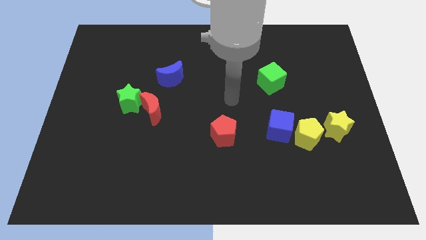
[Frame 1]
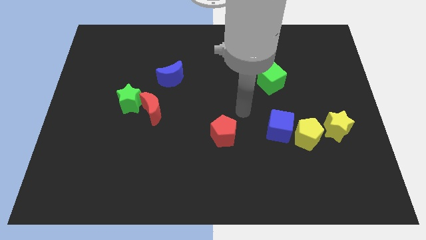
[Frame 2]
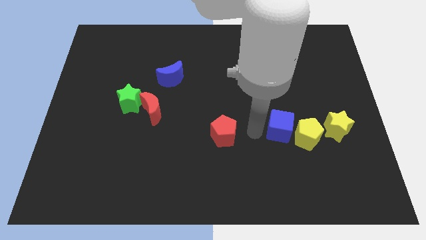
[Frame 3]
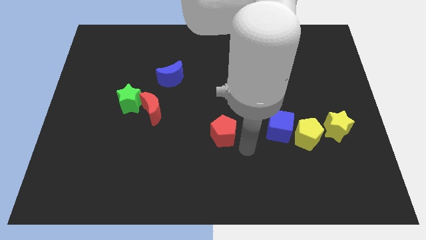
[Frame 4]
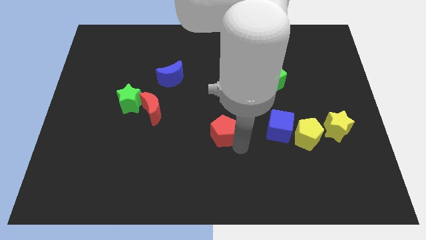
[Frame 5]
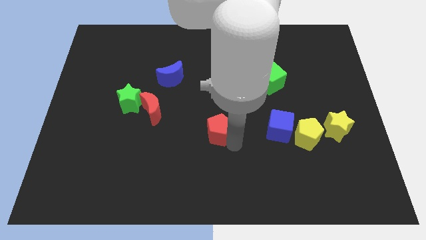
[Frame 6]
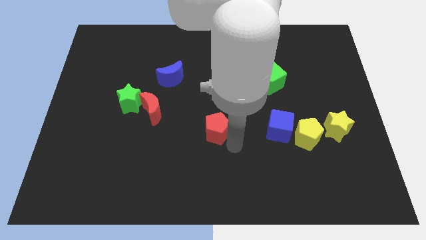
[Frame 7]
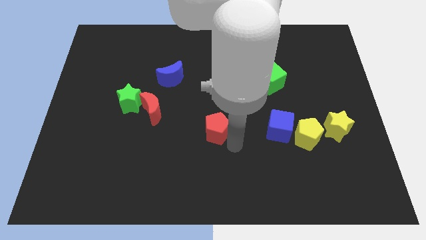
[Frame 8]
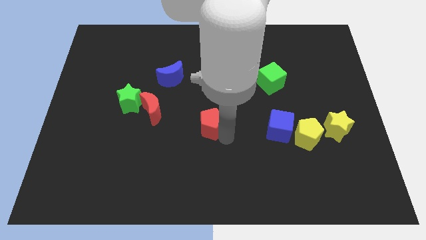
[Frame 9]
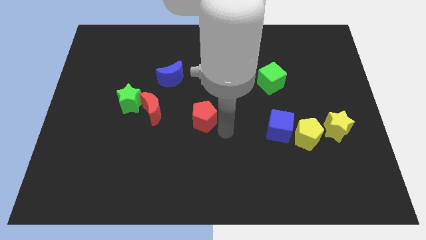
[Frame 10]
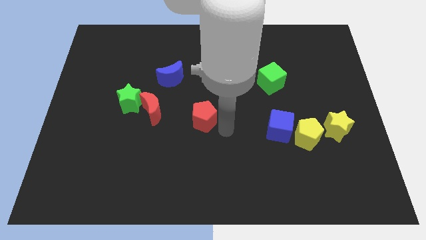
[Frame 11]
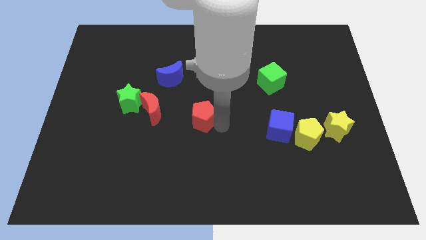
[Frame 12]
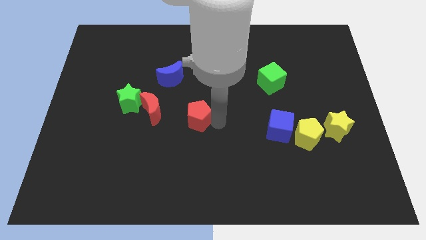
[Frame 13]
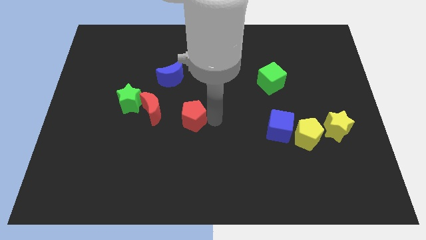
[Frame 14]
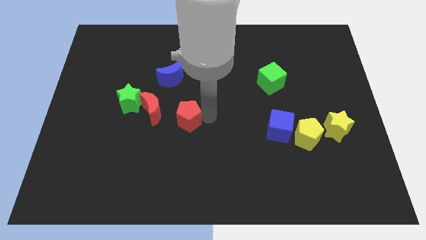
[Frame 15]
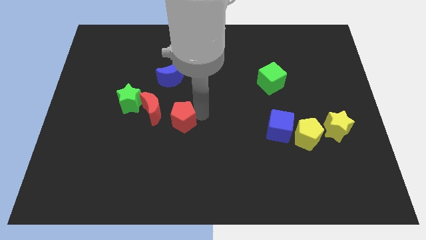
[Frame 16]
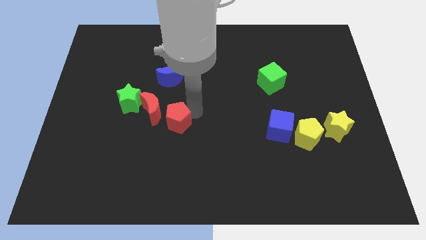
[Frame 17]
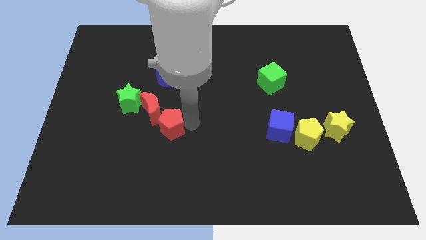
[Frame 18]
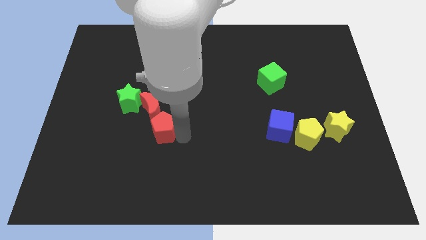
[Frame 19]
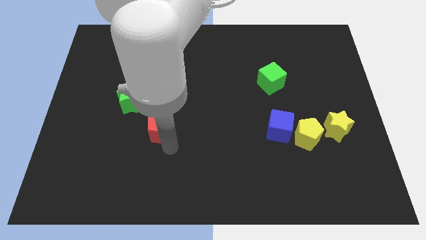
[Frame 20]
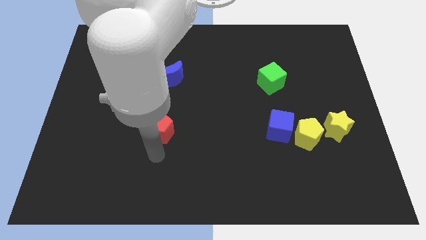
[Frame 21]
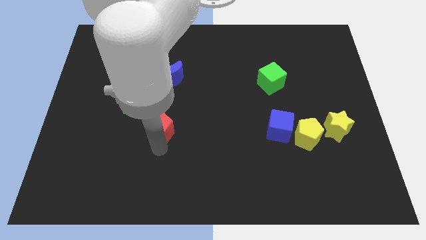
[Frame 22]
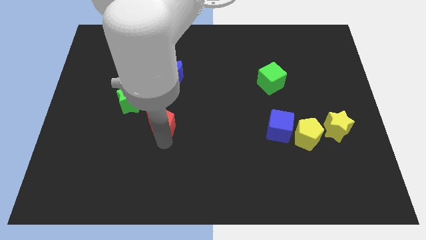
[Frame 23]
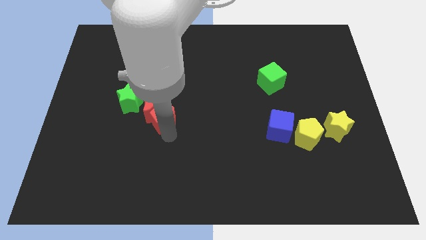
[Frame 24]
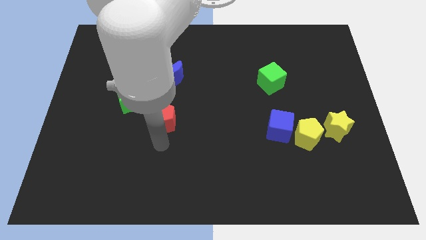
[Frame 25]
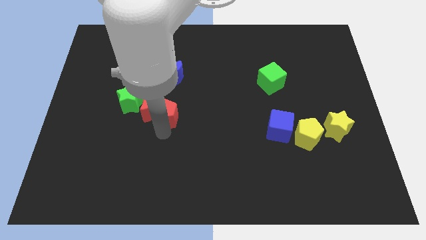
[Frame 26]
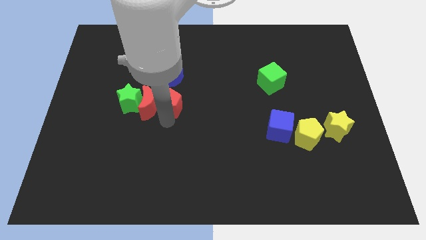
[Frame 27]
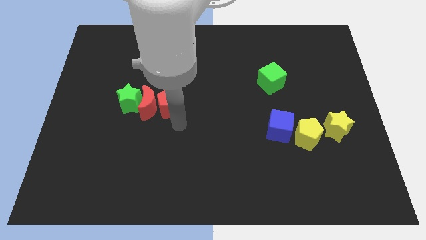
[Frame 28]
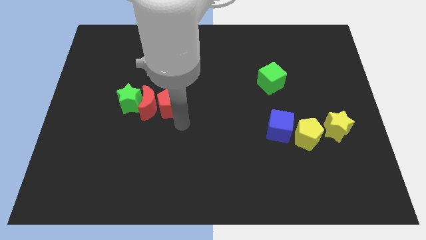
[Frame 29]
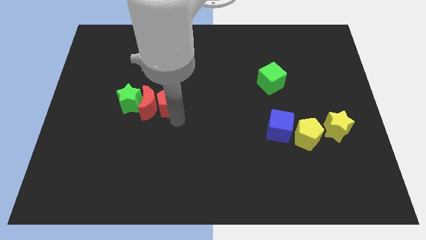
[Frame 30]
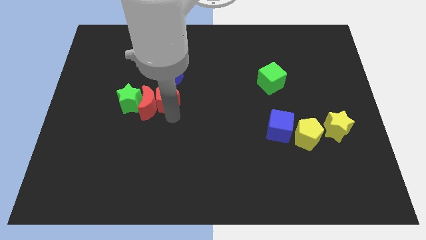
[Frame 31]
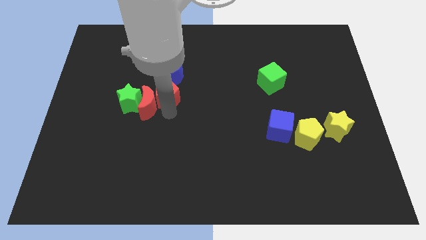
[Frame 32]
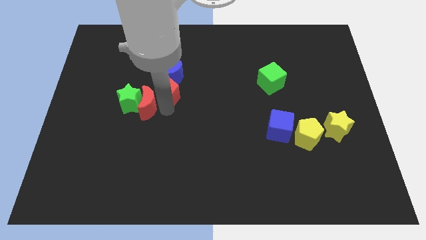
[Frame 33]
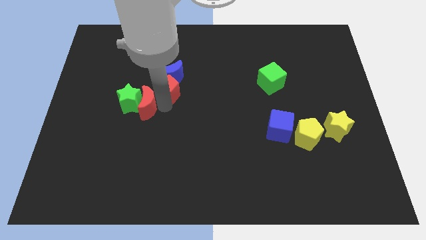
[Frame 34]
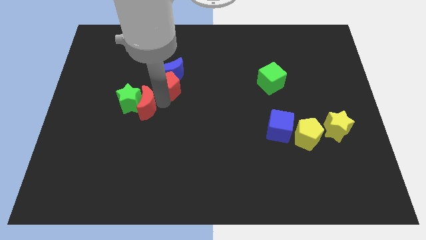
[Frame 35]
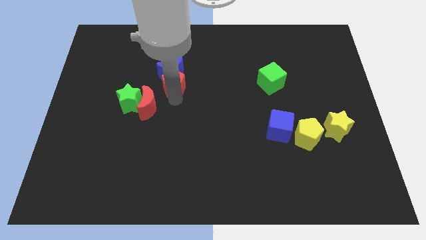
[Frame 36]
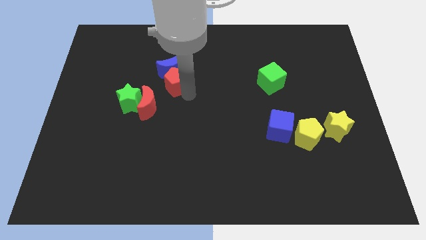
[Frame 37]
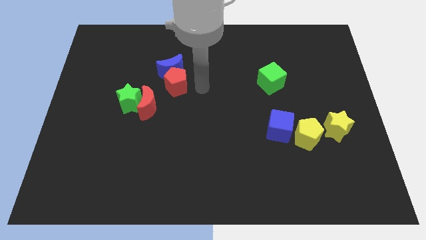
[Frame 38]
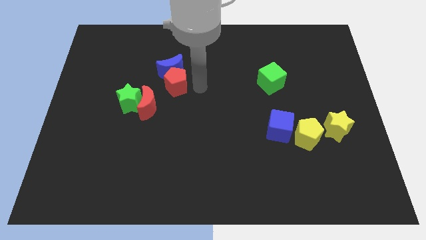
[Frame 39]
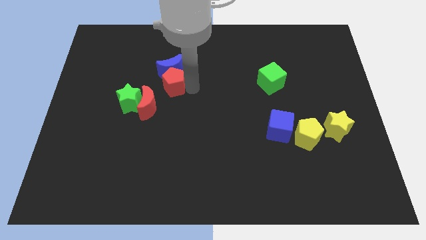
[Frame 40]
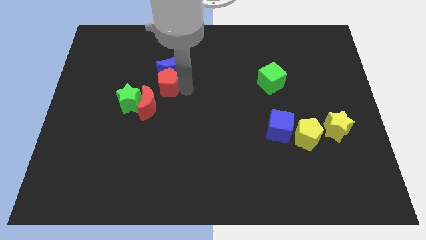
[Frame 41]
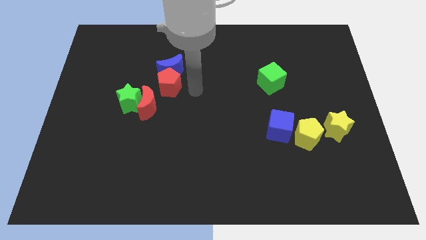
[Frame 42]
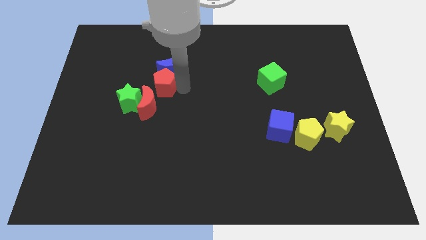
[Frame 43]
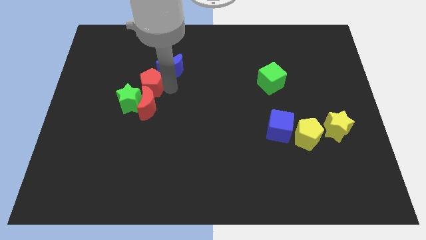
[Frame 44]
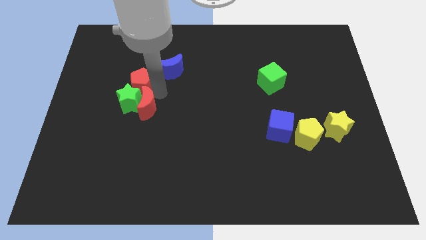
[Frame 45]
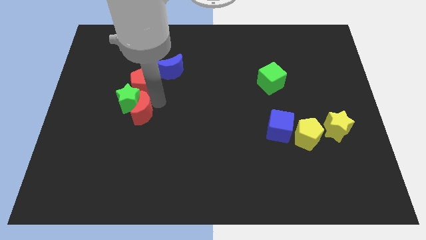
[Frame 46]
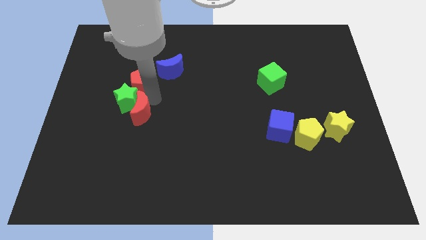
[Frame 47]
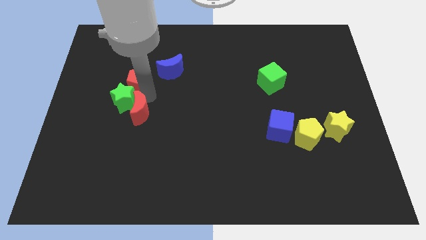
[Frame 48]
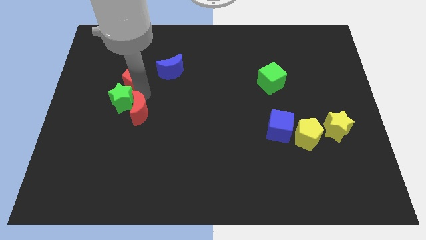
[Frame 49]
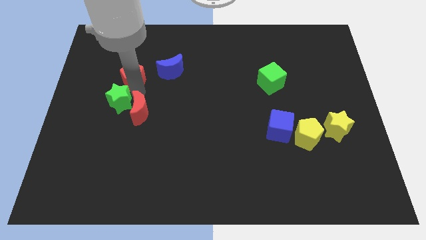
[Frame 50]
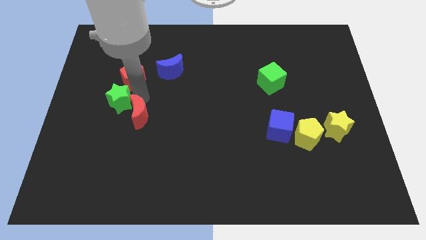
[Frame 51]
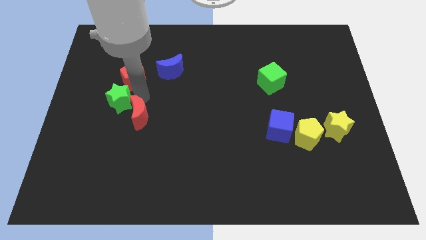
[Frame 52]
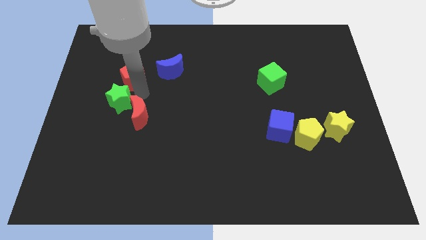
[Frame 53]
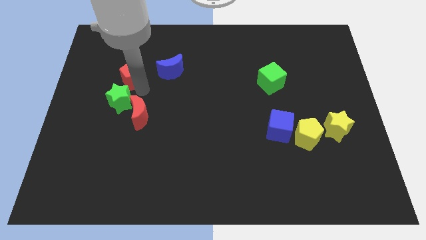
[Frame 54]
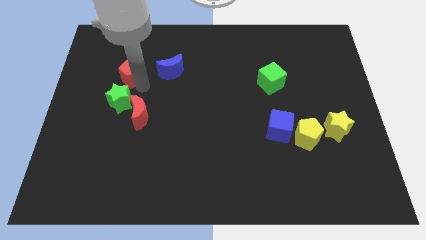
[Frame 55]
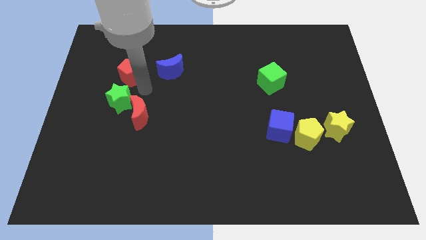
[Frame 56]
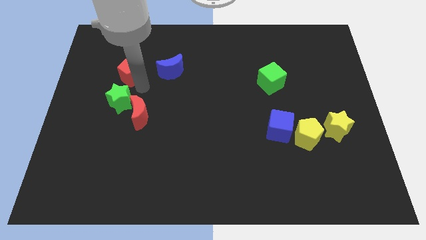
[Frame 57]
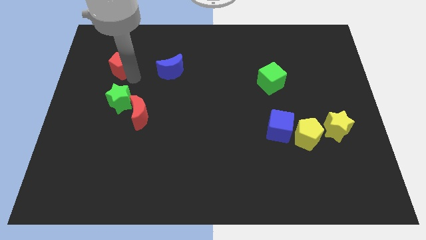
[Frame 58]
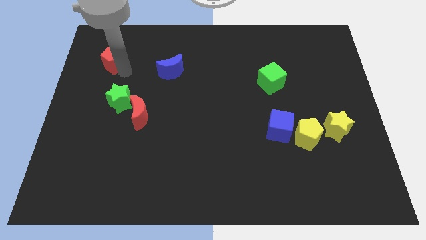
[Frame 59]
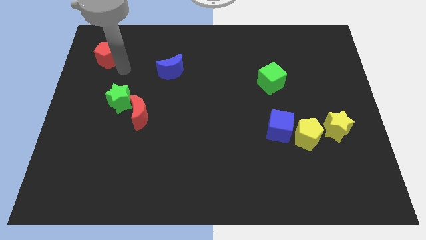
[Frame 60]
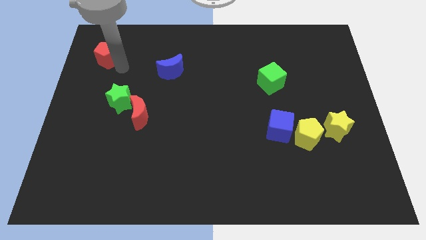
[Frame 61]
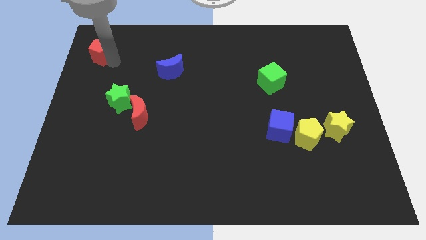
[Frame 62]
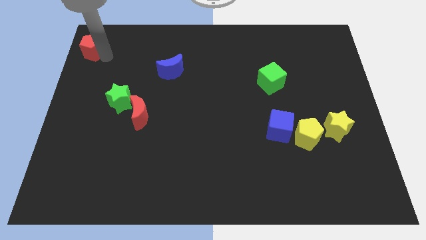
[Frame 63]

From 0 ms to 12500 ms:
move the red pentagon to the top left of the board

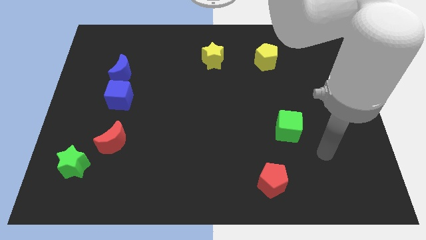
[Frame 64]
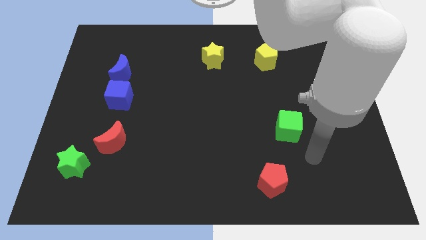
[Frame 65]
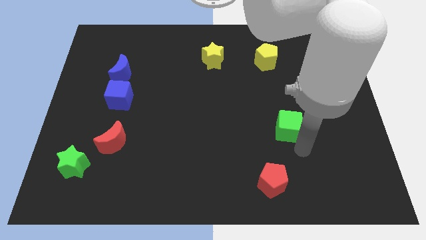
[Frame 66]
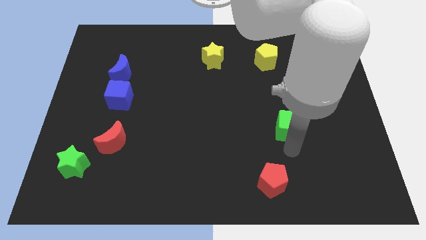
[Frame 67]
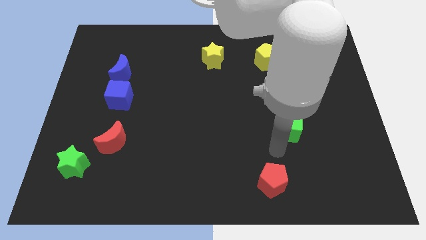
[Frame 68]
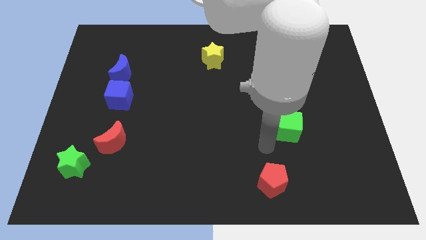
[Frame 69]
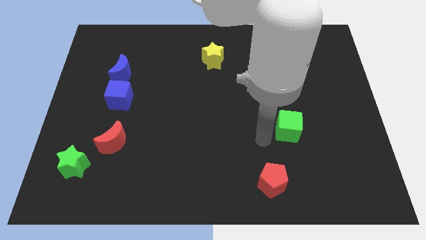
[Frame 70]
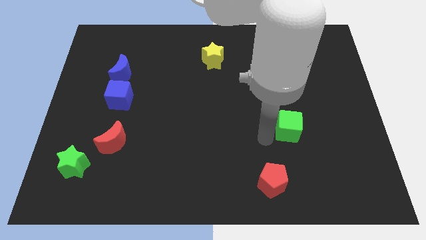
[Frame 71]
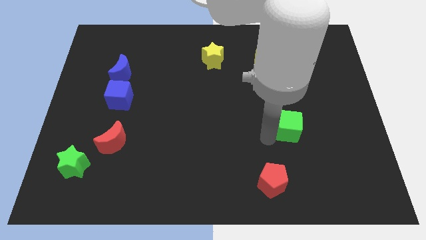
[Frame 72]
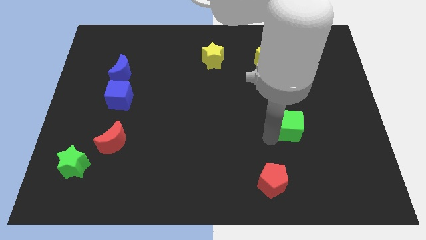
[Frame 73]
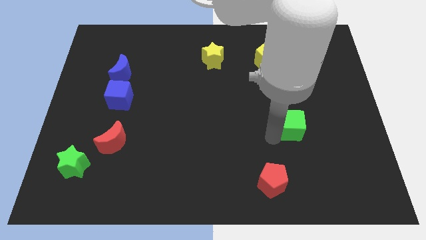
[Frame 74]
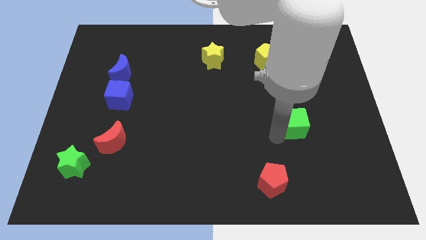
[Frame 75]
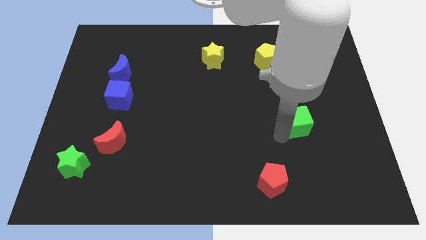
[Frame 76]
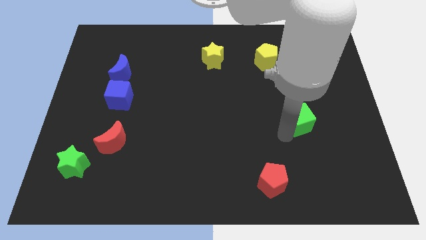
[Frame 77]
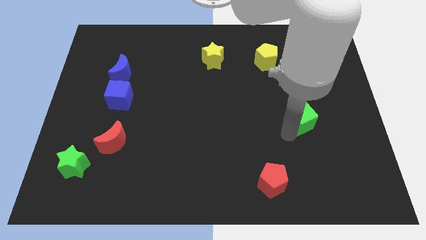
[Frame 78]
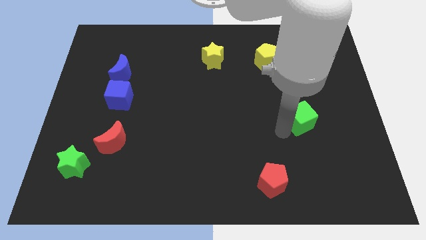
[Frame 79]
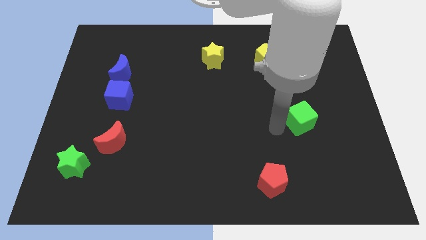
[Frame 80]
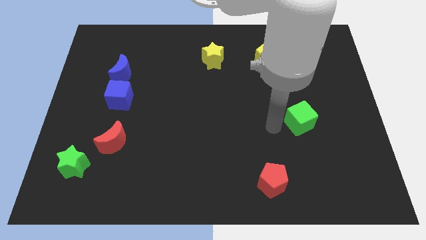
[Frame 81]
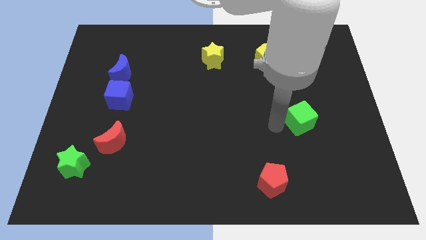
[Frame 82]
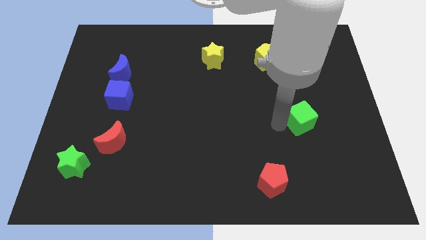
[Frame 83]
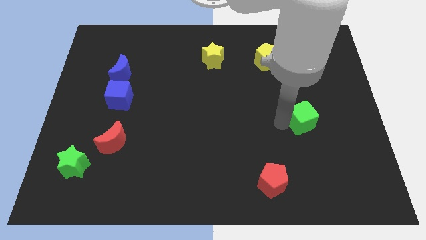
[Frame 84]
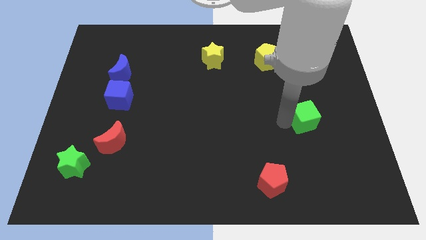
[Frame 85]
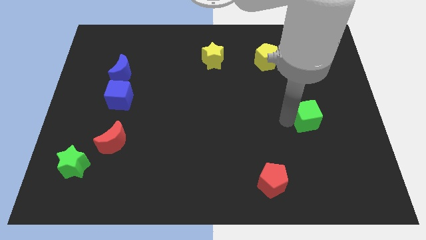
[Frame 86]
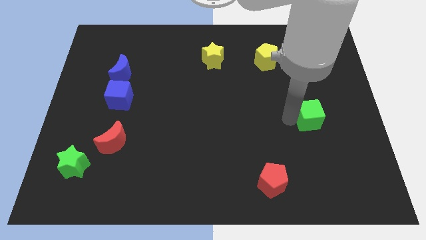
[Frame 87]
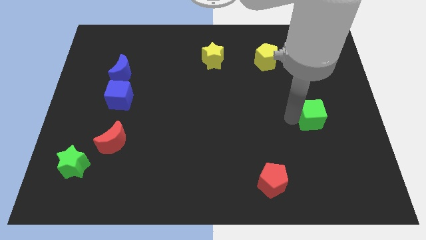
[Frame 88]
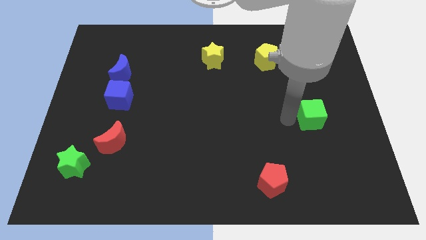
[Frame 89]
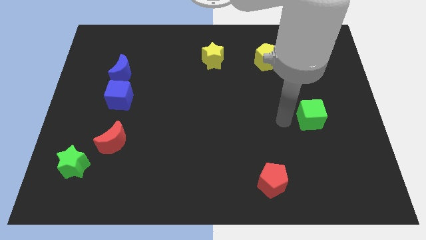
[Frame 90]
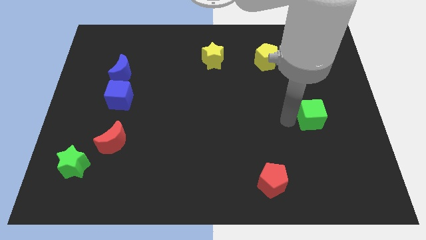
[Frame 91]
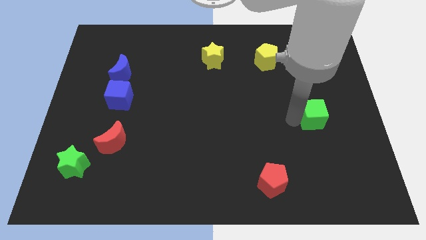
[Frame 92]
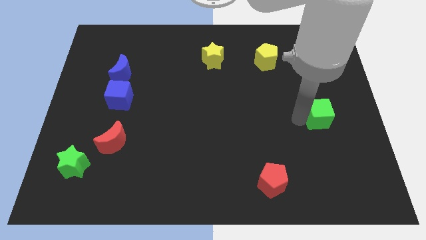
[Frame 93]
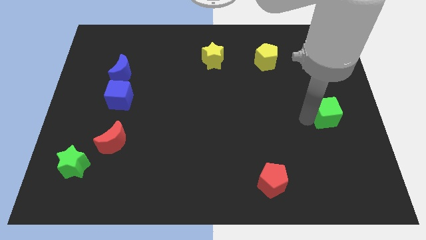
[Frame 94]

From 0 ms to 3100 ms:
push the green cube to the center right
